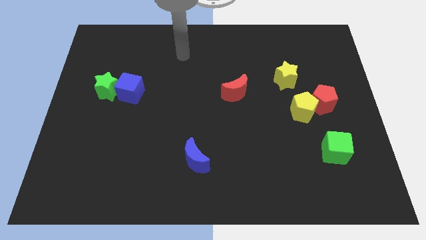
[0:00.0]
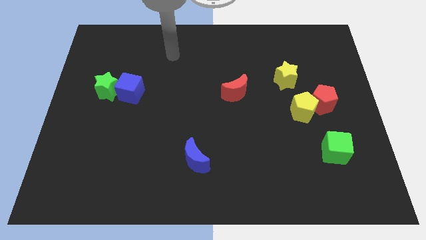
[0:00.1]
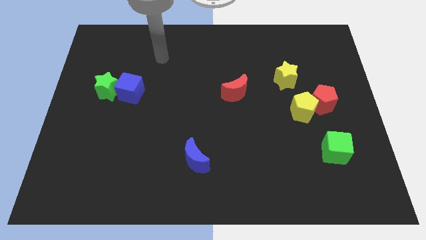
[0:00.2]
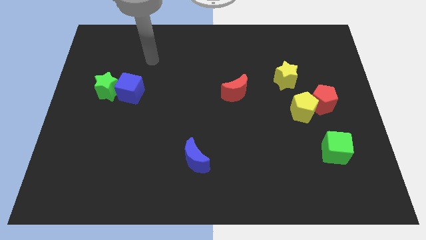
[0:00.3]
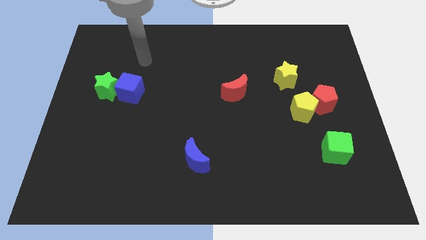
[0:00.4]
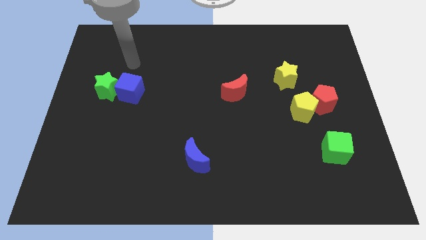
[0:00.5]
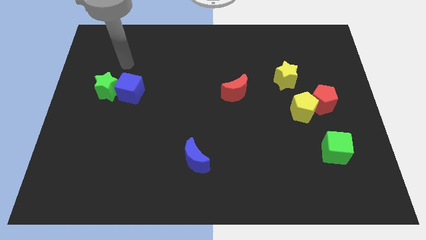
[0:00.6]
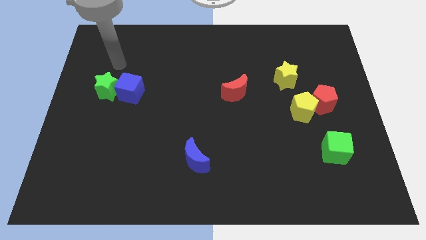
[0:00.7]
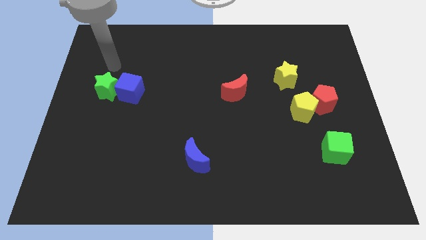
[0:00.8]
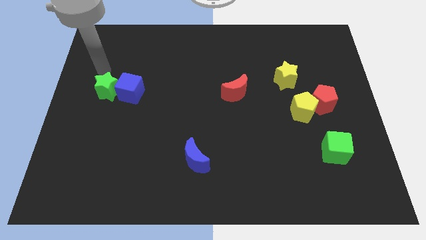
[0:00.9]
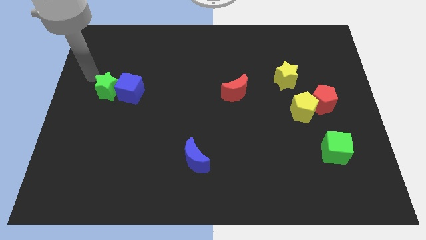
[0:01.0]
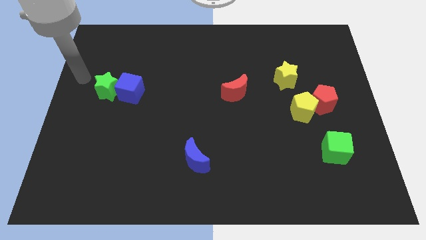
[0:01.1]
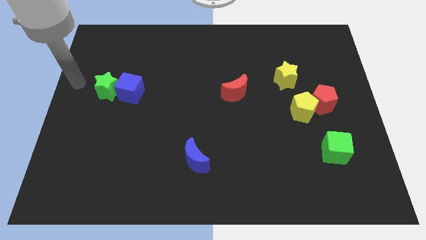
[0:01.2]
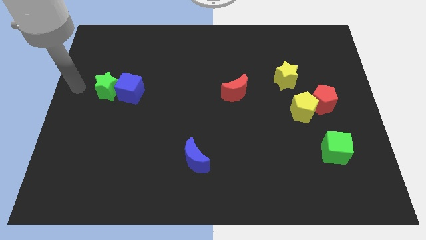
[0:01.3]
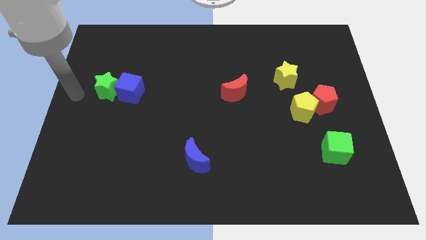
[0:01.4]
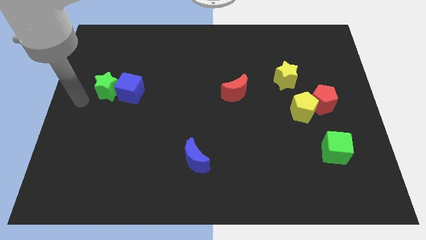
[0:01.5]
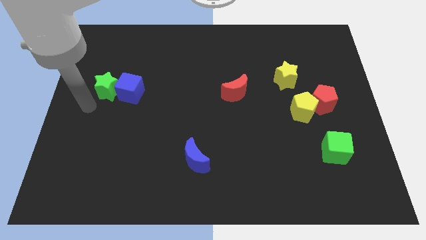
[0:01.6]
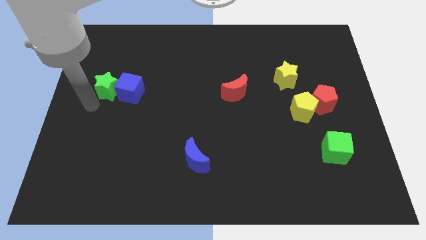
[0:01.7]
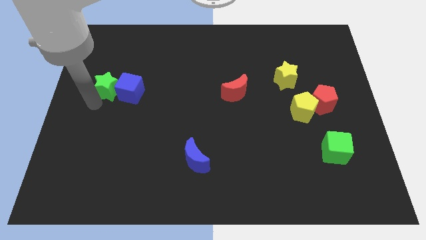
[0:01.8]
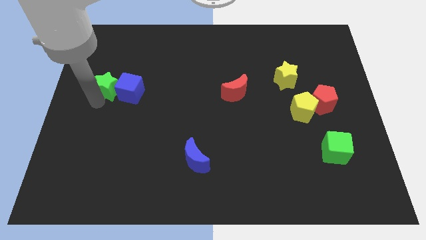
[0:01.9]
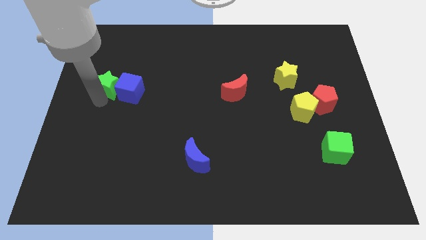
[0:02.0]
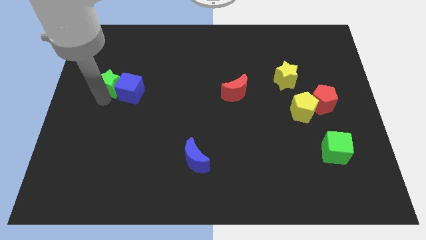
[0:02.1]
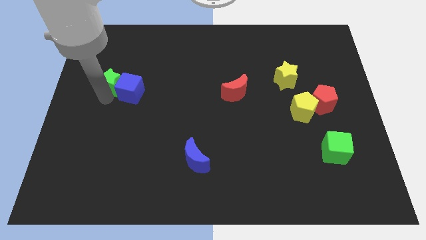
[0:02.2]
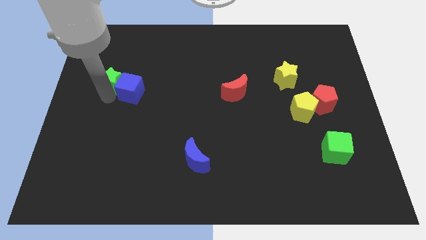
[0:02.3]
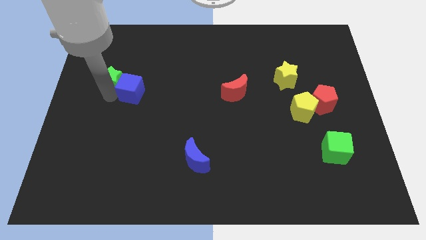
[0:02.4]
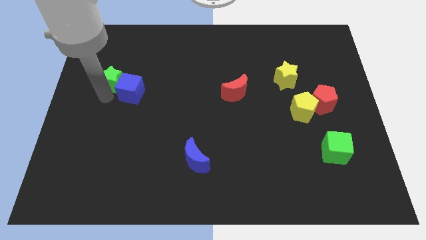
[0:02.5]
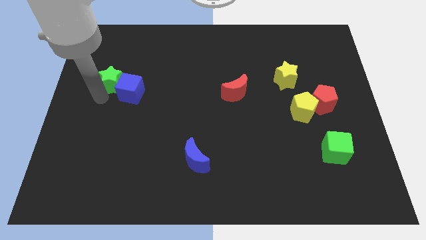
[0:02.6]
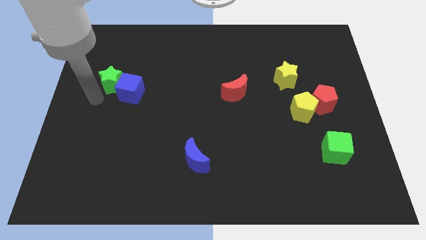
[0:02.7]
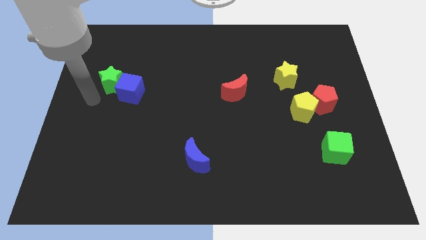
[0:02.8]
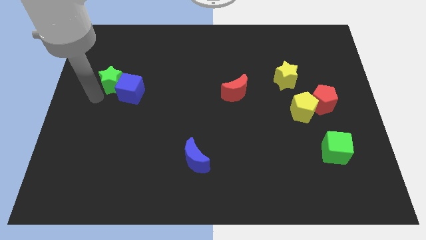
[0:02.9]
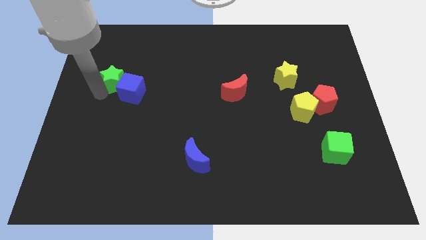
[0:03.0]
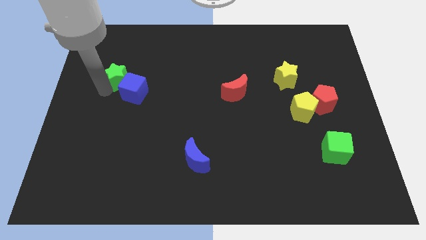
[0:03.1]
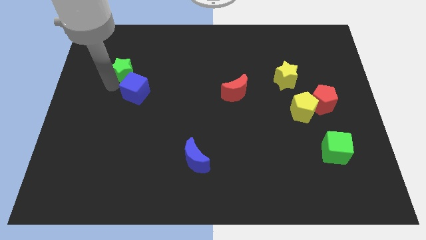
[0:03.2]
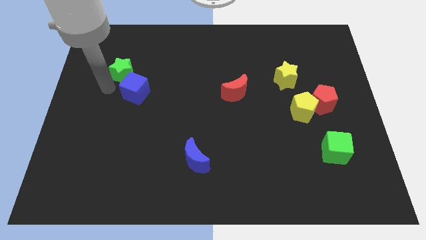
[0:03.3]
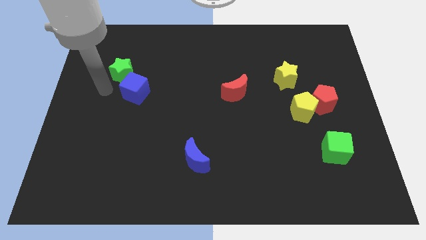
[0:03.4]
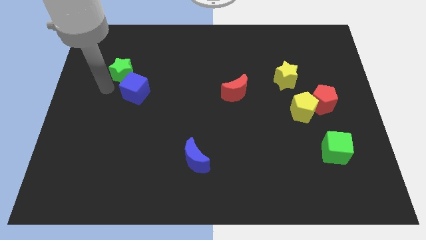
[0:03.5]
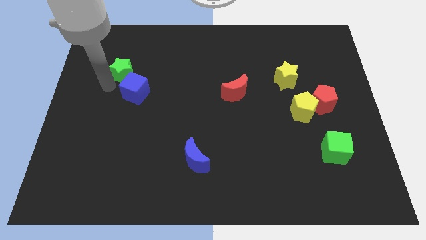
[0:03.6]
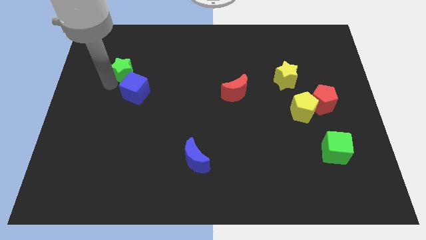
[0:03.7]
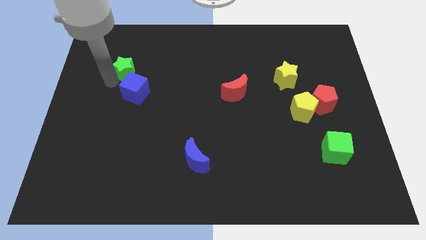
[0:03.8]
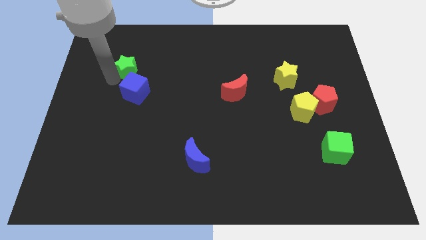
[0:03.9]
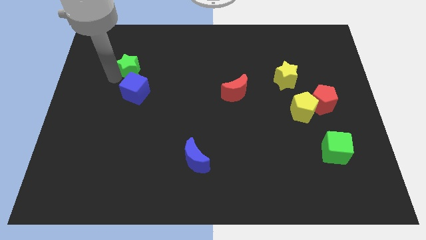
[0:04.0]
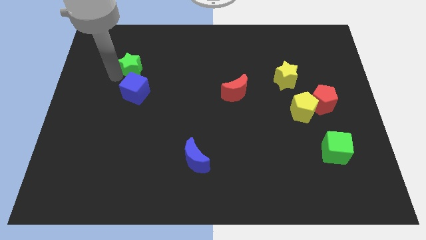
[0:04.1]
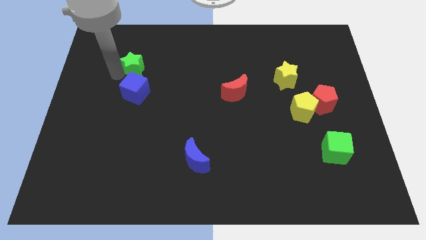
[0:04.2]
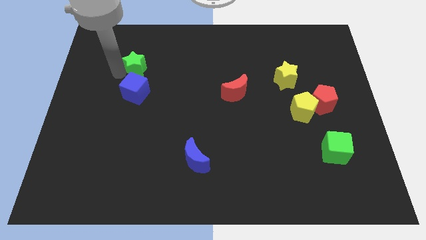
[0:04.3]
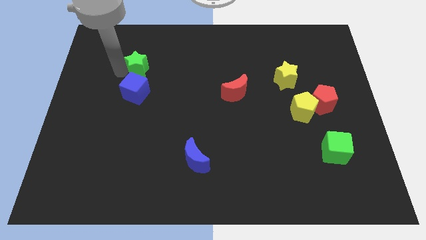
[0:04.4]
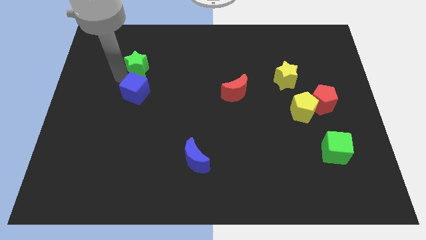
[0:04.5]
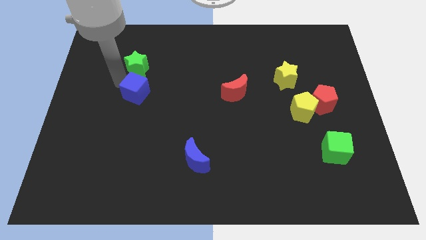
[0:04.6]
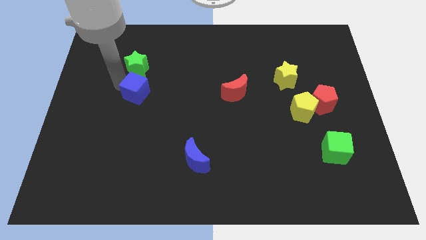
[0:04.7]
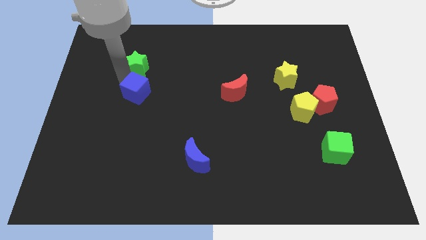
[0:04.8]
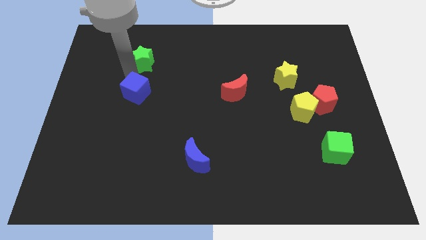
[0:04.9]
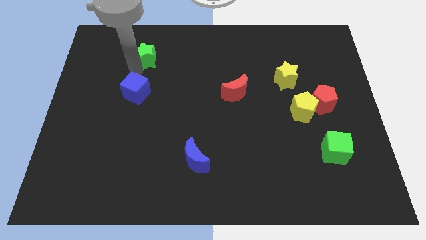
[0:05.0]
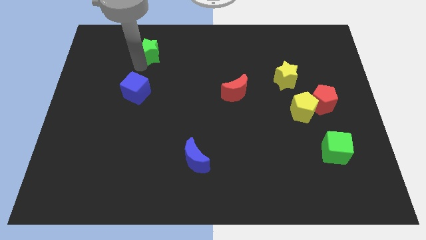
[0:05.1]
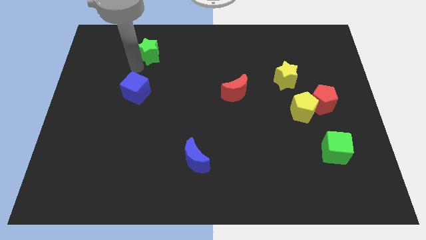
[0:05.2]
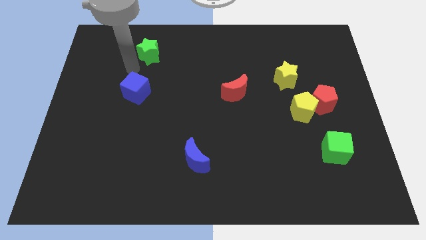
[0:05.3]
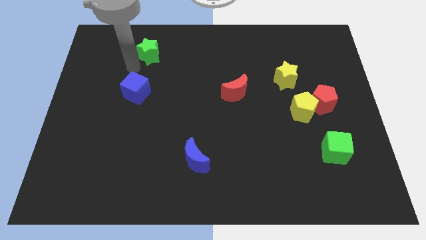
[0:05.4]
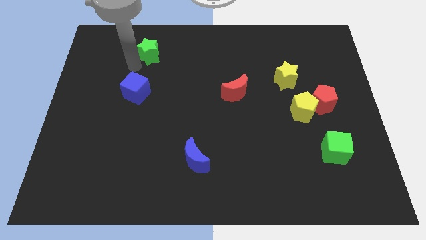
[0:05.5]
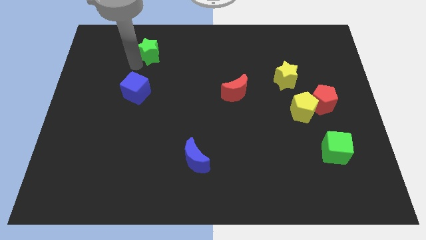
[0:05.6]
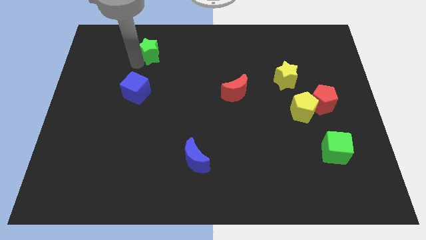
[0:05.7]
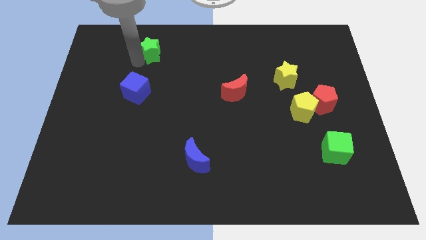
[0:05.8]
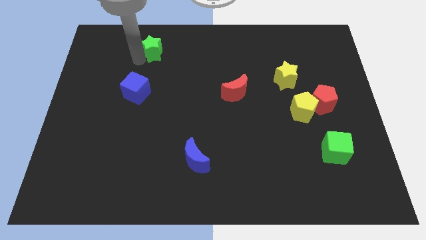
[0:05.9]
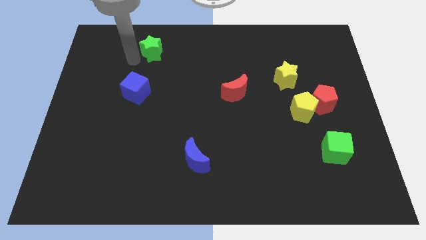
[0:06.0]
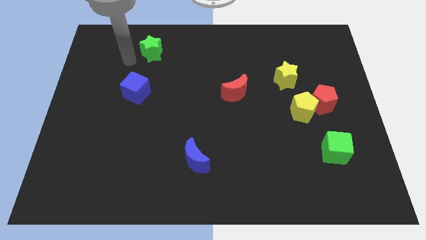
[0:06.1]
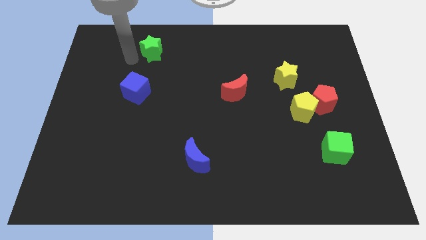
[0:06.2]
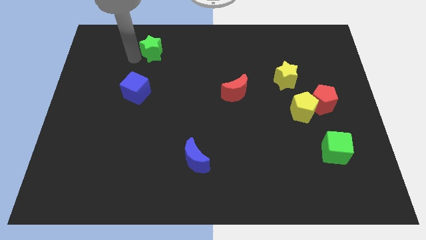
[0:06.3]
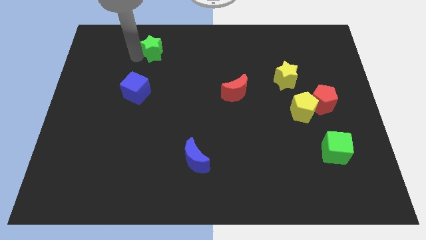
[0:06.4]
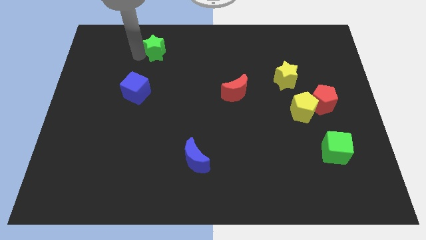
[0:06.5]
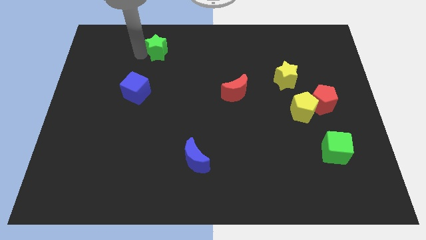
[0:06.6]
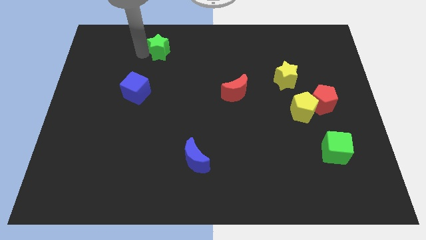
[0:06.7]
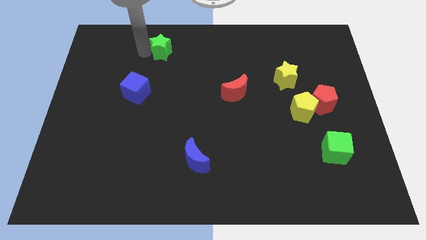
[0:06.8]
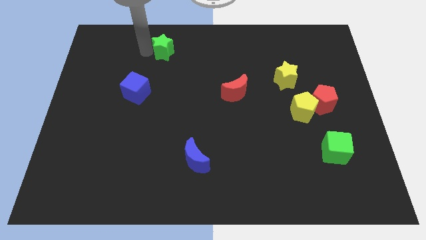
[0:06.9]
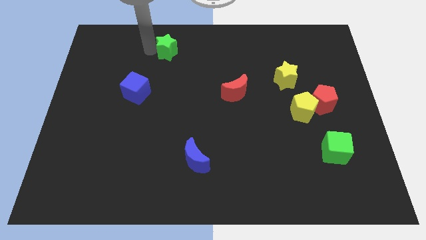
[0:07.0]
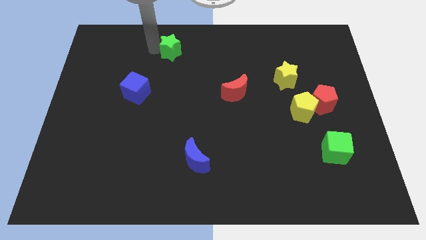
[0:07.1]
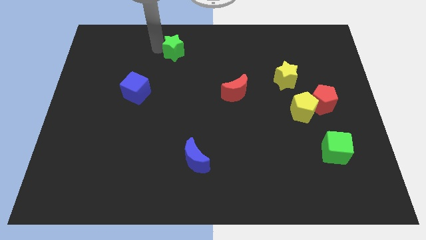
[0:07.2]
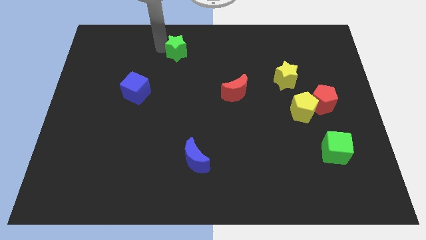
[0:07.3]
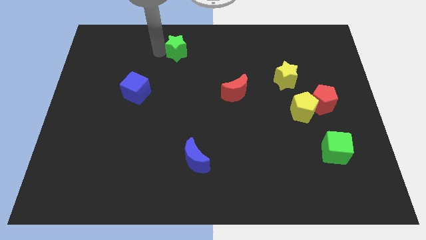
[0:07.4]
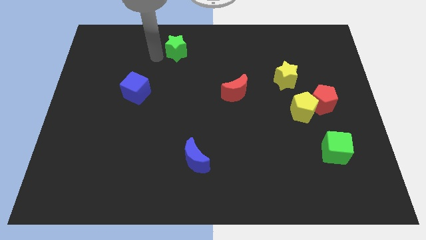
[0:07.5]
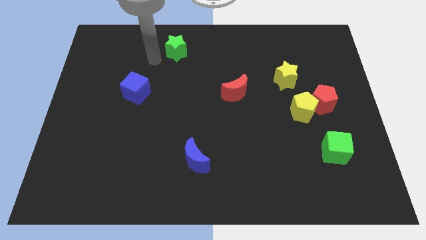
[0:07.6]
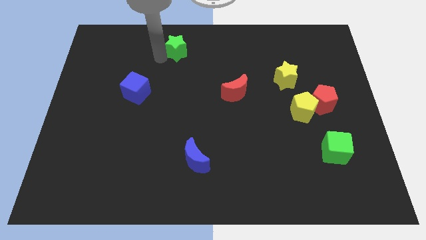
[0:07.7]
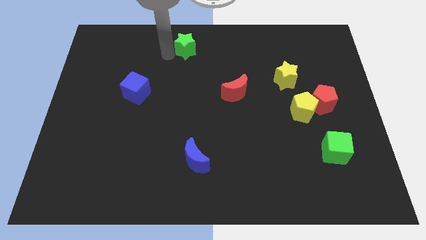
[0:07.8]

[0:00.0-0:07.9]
slide the green star to the top
